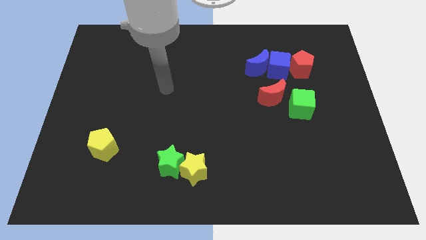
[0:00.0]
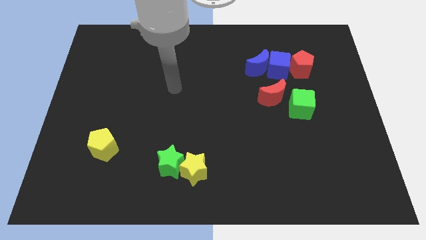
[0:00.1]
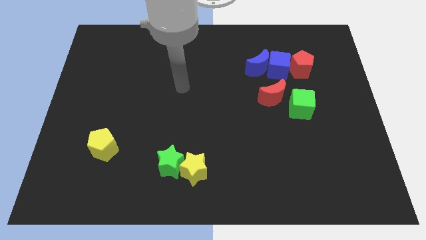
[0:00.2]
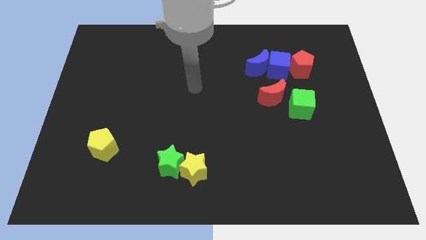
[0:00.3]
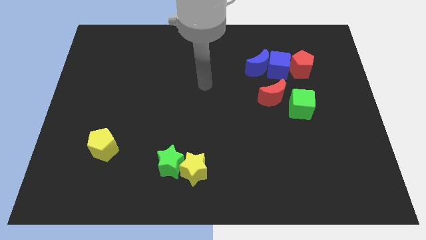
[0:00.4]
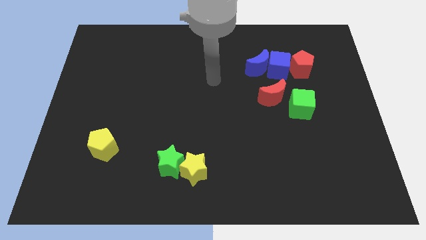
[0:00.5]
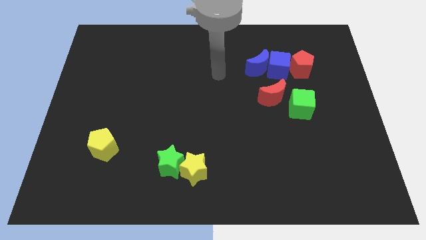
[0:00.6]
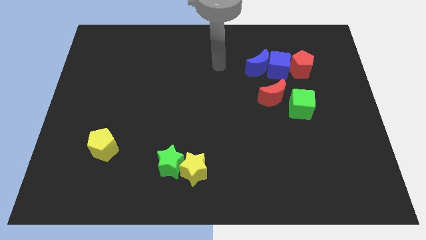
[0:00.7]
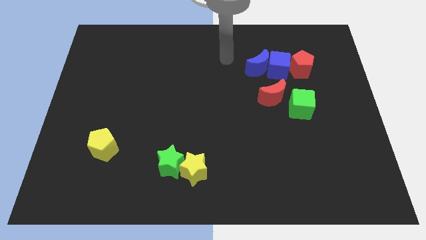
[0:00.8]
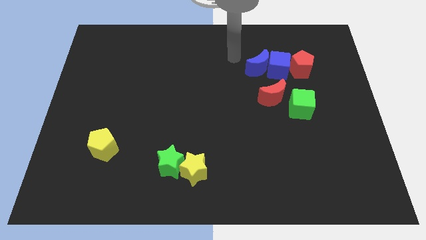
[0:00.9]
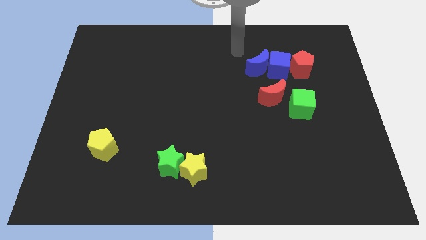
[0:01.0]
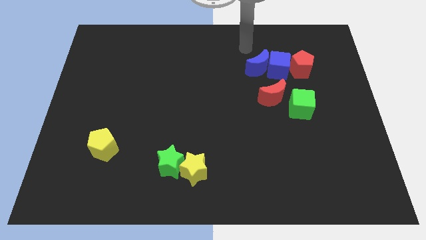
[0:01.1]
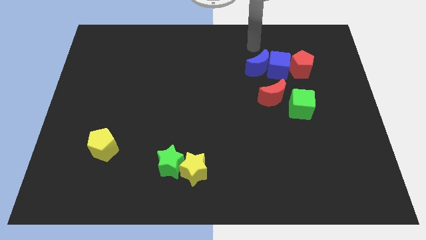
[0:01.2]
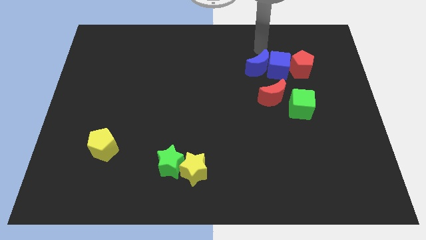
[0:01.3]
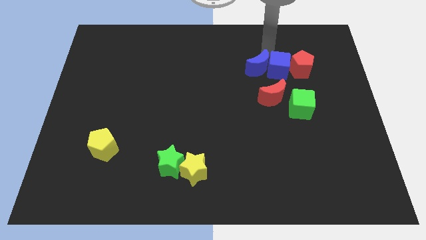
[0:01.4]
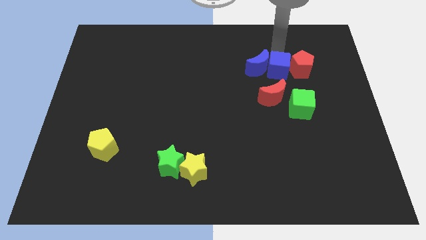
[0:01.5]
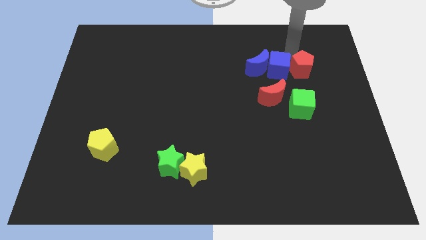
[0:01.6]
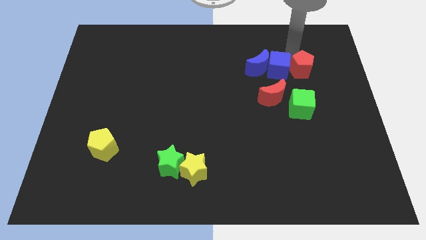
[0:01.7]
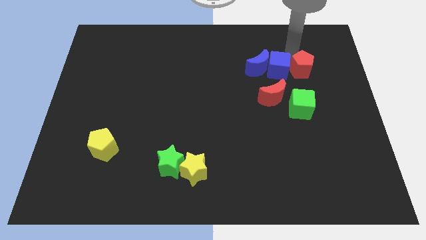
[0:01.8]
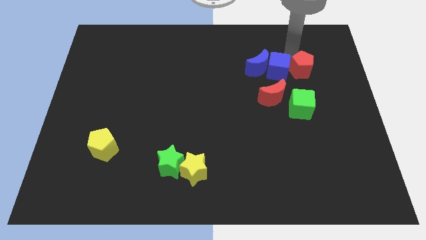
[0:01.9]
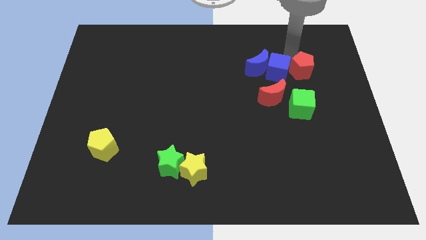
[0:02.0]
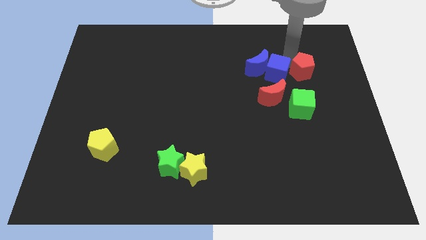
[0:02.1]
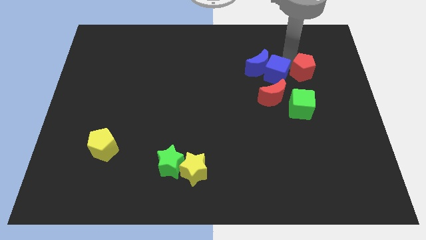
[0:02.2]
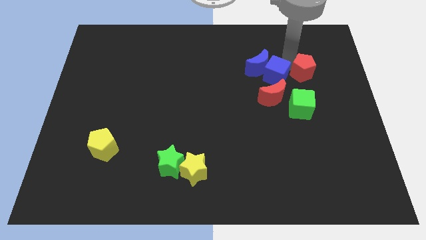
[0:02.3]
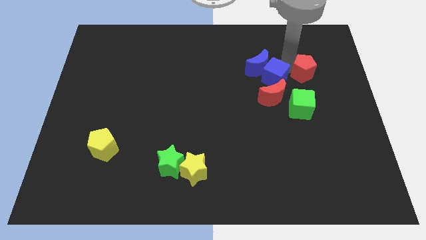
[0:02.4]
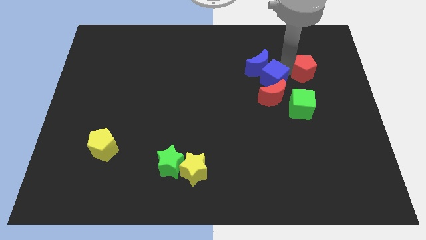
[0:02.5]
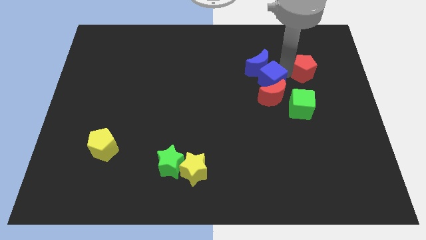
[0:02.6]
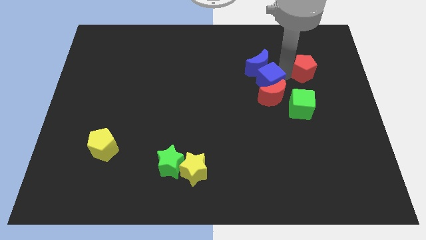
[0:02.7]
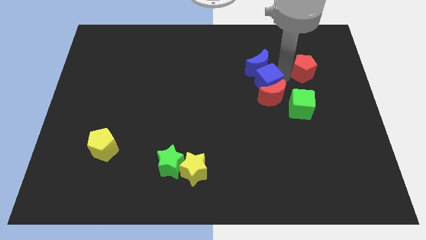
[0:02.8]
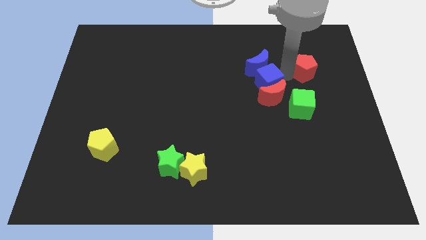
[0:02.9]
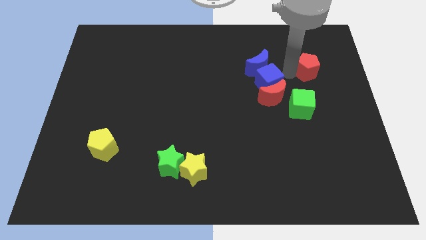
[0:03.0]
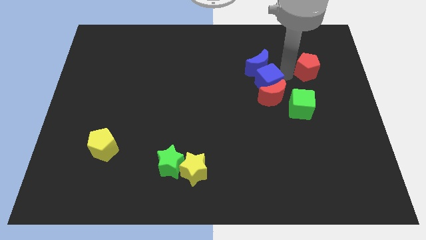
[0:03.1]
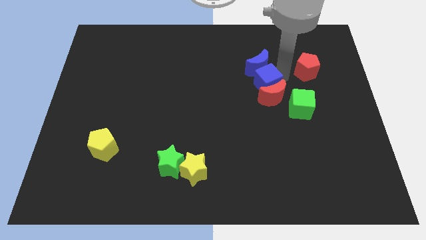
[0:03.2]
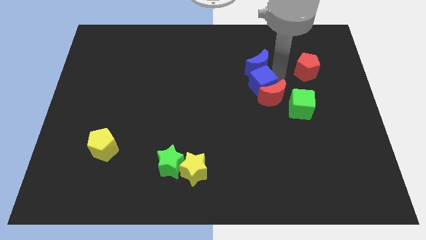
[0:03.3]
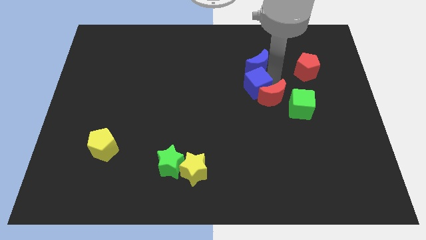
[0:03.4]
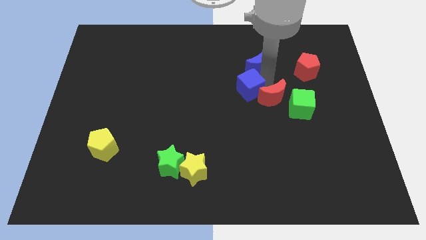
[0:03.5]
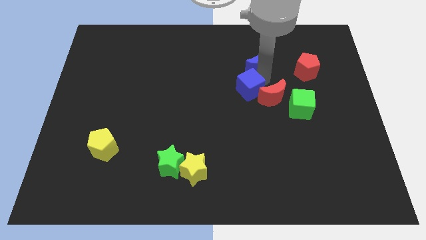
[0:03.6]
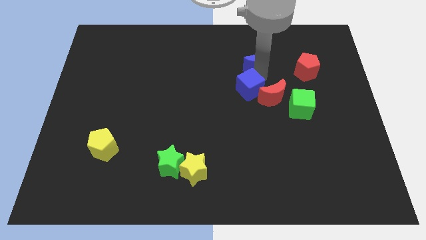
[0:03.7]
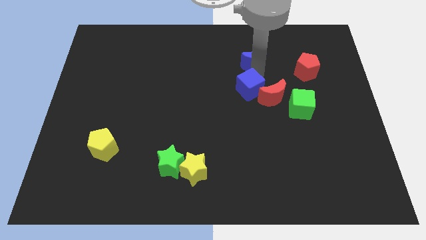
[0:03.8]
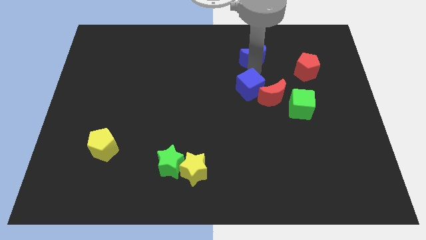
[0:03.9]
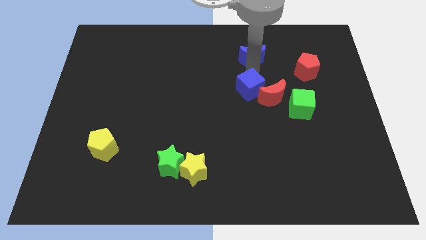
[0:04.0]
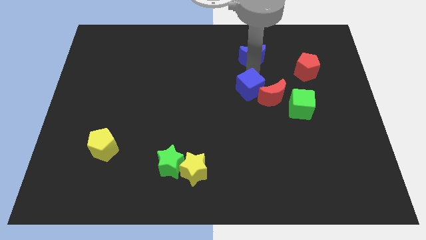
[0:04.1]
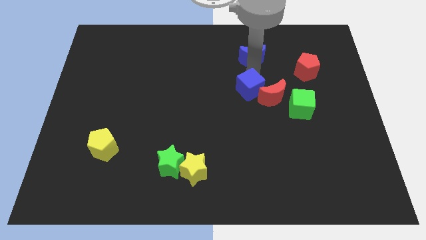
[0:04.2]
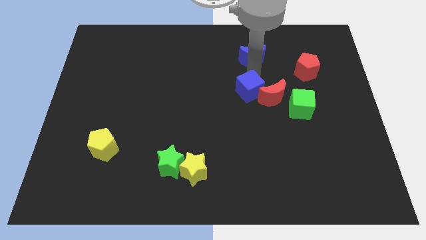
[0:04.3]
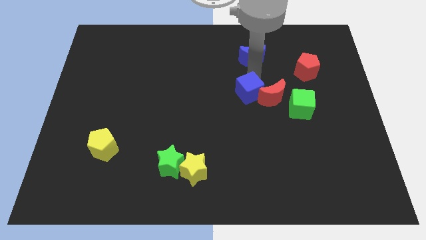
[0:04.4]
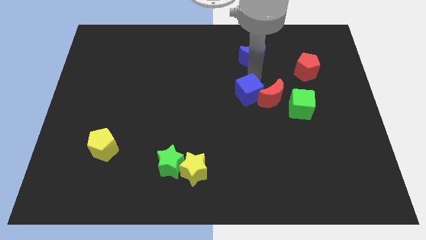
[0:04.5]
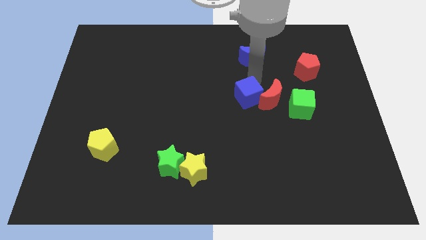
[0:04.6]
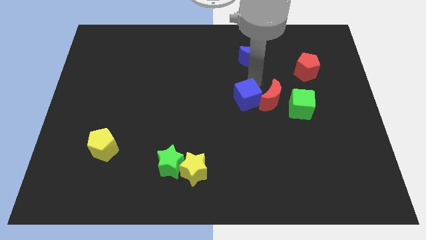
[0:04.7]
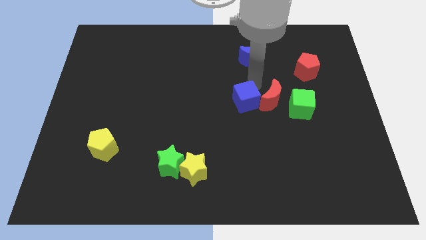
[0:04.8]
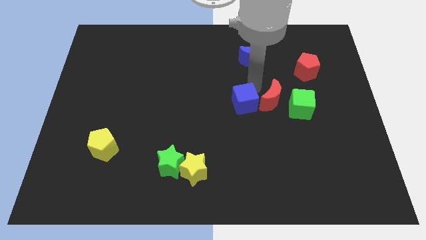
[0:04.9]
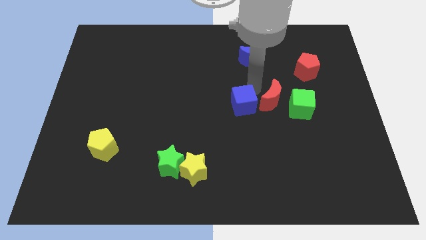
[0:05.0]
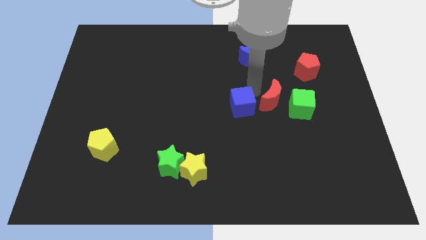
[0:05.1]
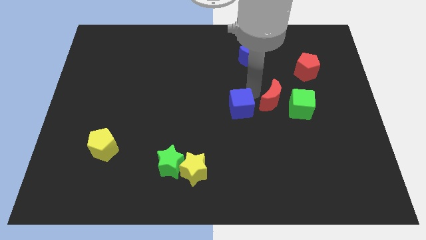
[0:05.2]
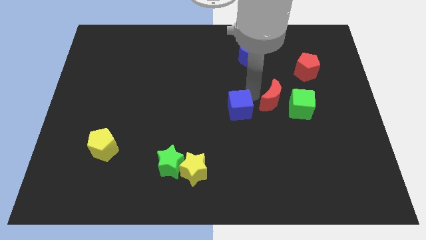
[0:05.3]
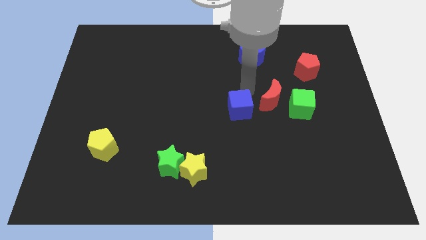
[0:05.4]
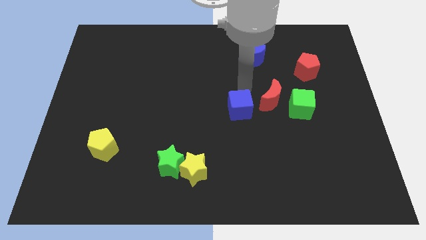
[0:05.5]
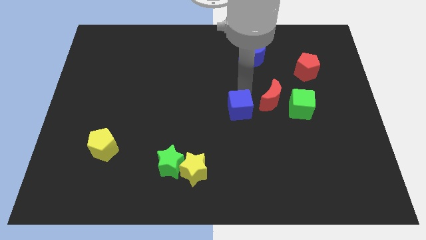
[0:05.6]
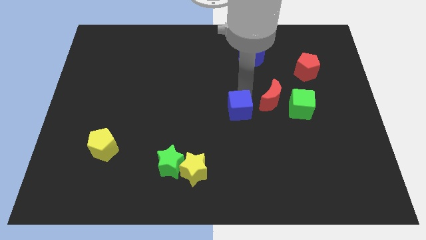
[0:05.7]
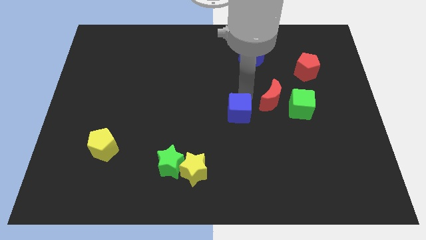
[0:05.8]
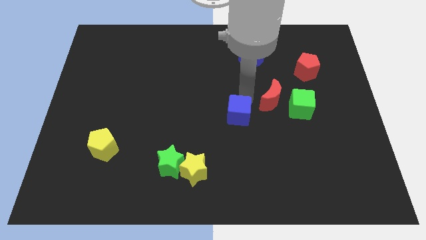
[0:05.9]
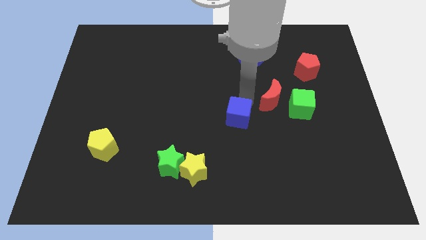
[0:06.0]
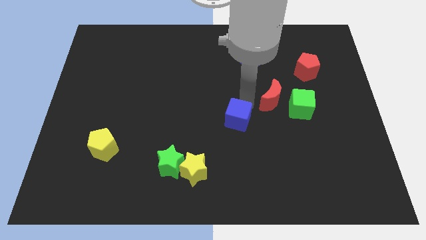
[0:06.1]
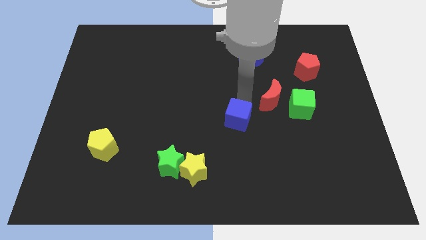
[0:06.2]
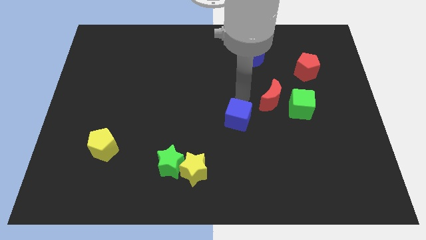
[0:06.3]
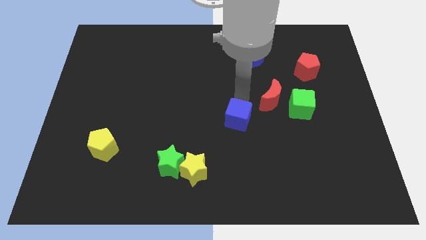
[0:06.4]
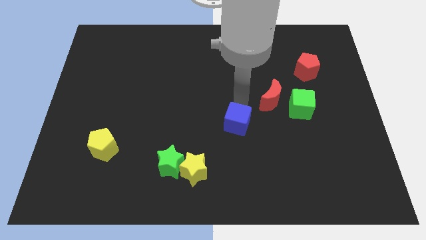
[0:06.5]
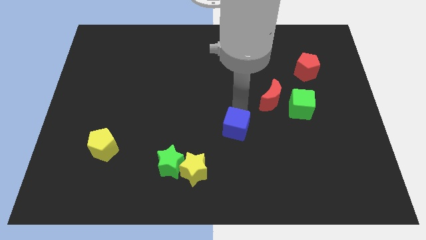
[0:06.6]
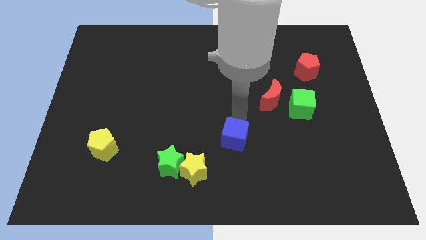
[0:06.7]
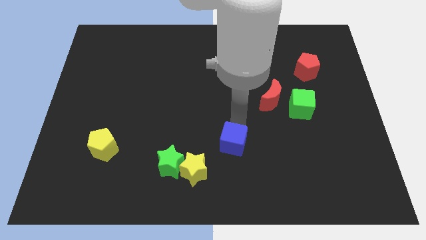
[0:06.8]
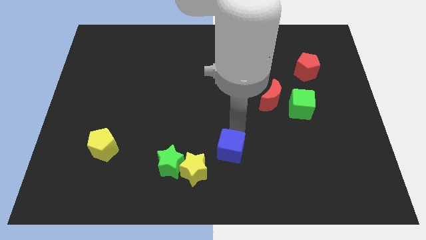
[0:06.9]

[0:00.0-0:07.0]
move the blue cube to the right side of the green star

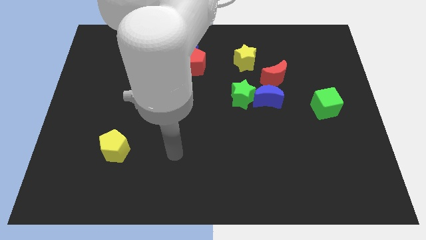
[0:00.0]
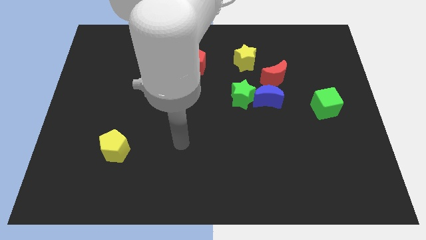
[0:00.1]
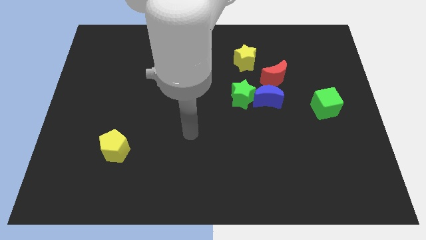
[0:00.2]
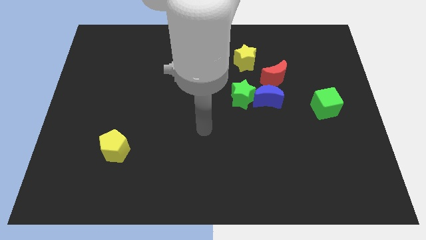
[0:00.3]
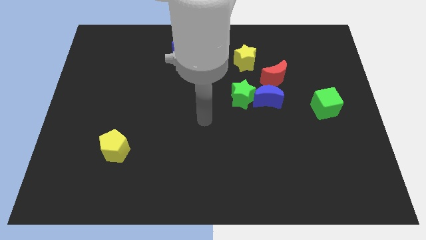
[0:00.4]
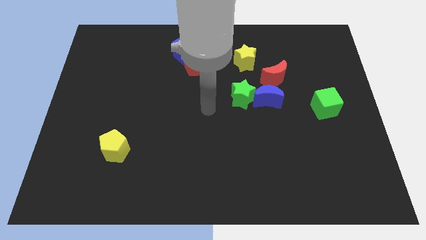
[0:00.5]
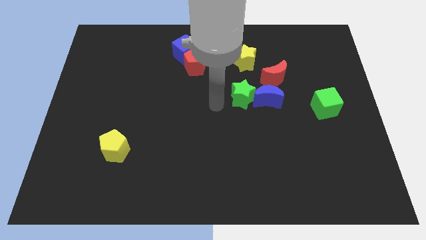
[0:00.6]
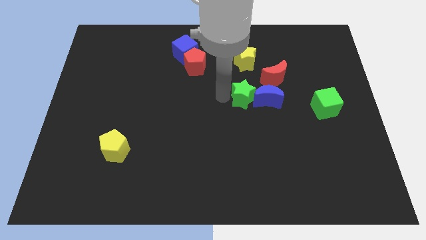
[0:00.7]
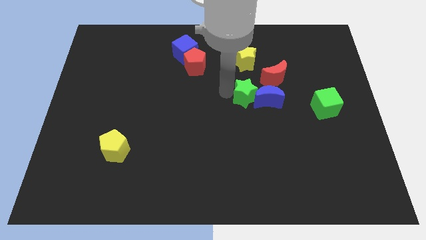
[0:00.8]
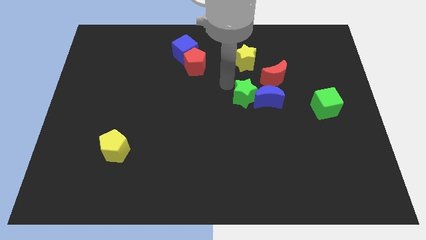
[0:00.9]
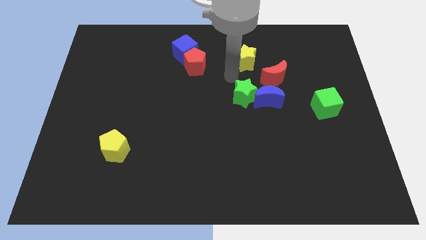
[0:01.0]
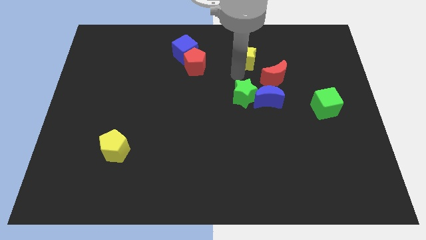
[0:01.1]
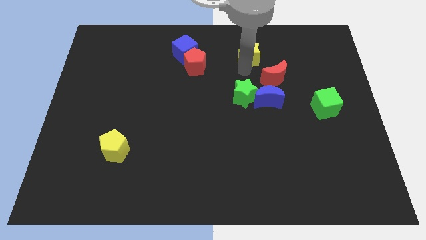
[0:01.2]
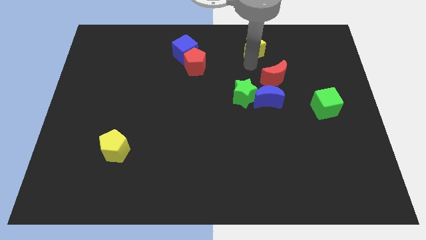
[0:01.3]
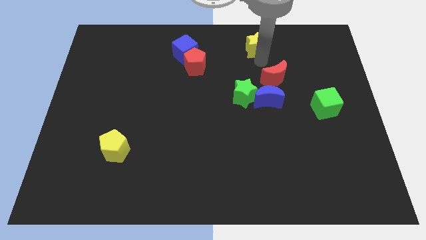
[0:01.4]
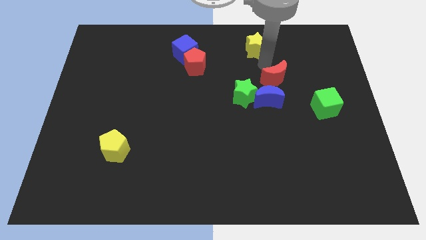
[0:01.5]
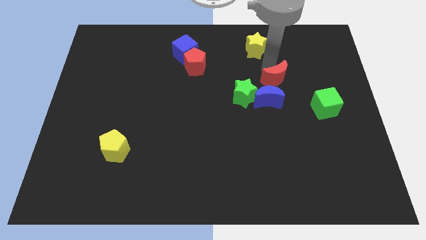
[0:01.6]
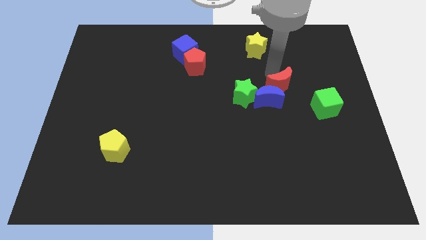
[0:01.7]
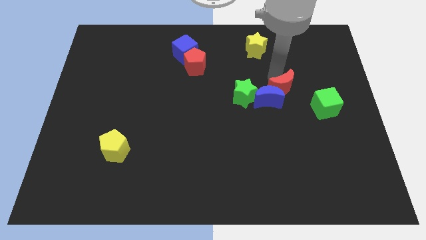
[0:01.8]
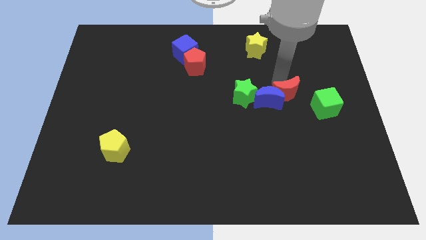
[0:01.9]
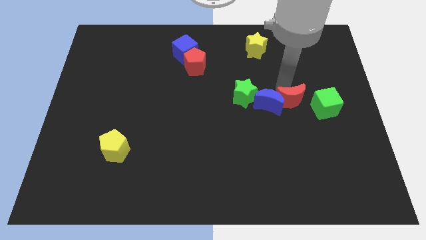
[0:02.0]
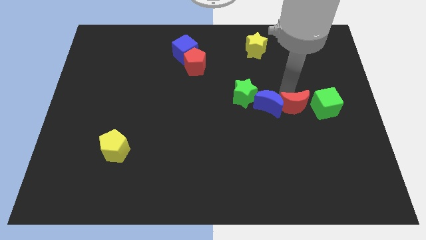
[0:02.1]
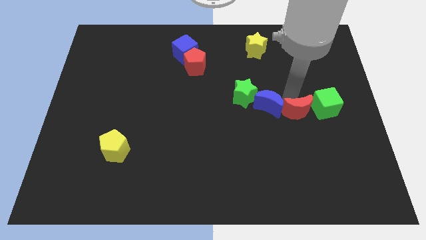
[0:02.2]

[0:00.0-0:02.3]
push the red moon to the bottom left of the green cube
